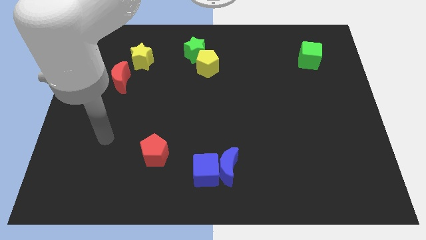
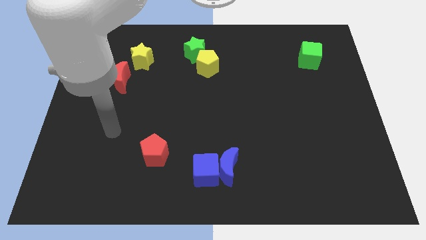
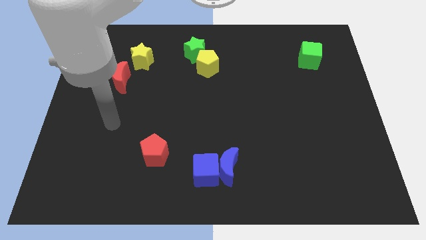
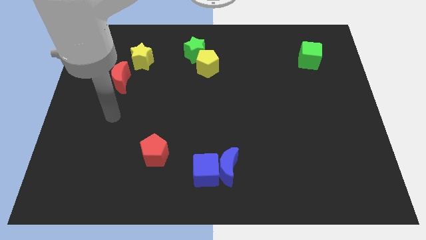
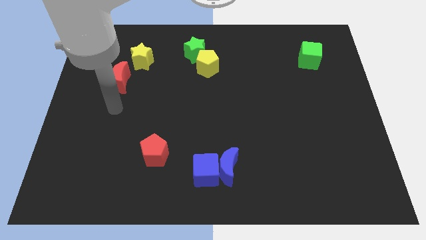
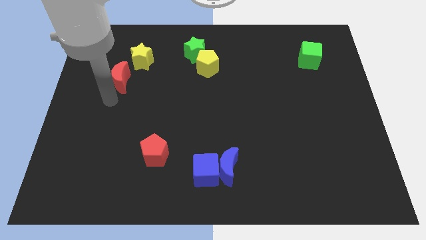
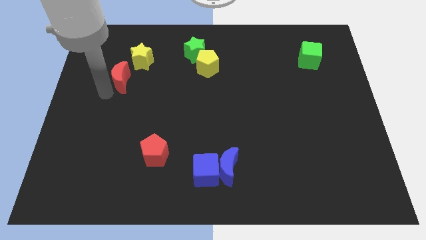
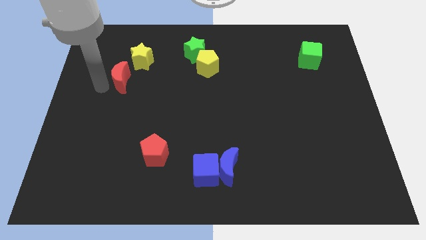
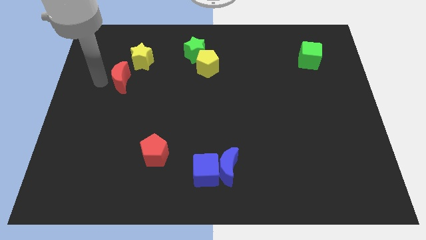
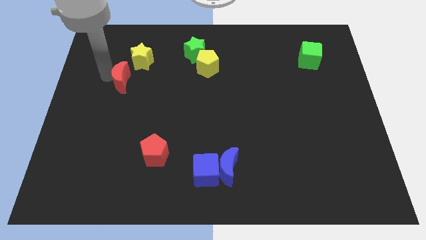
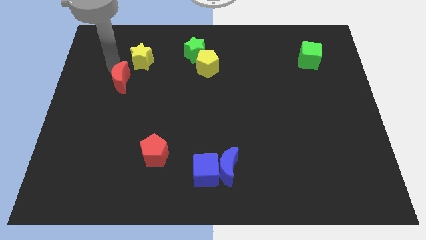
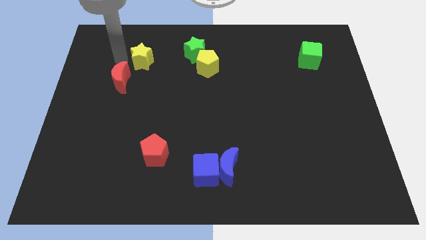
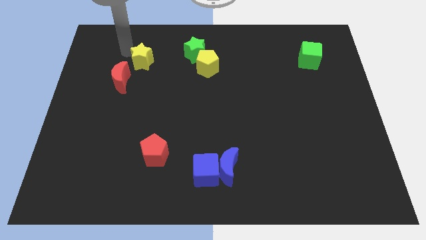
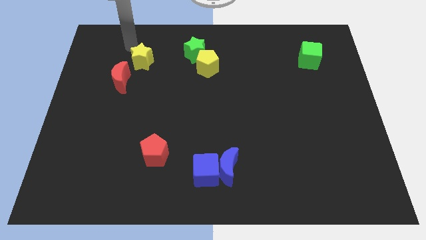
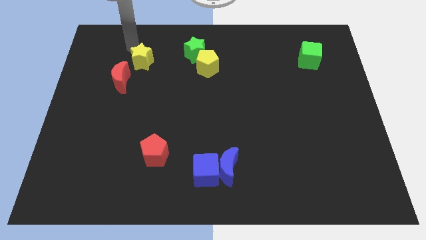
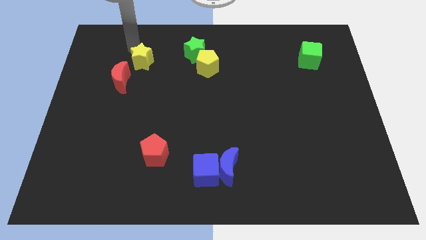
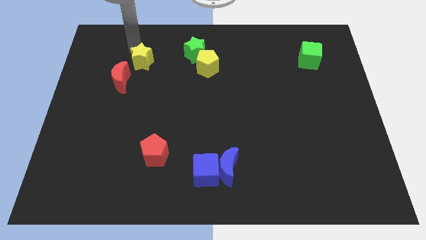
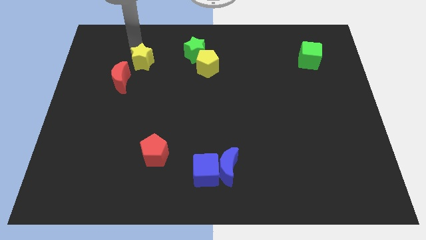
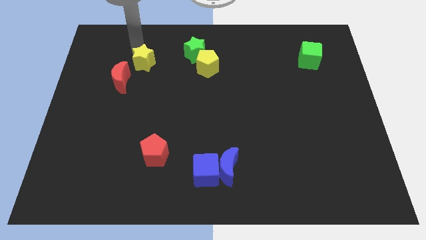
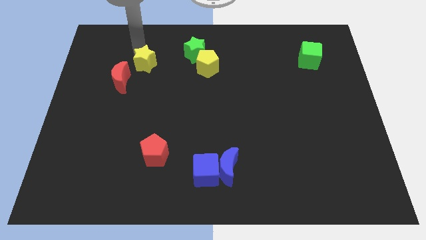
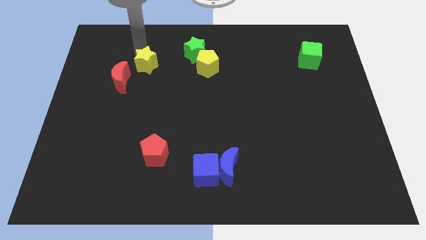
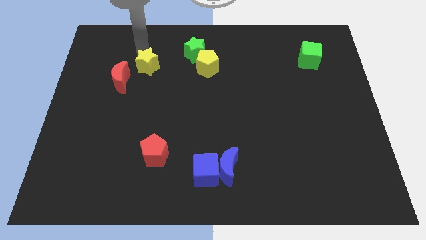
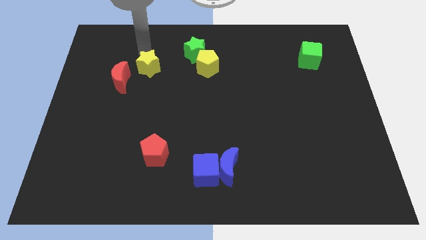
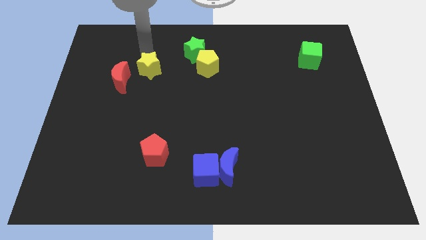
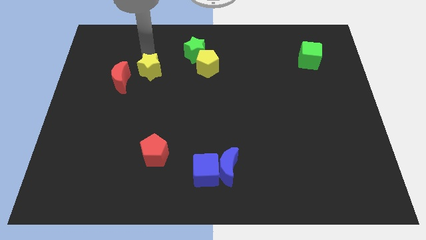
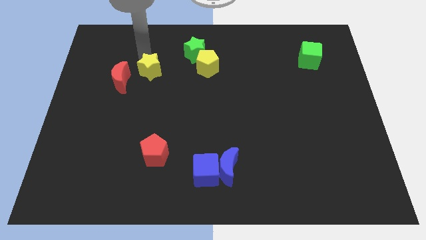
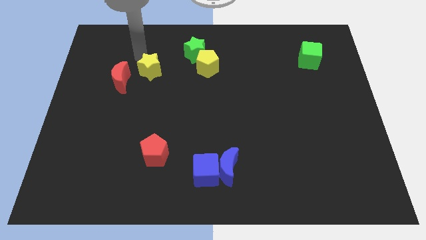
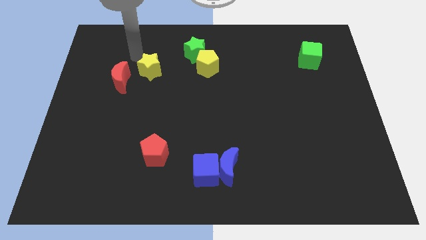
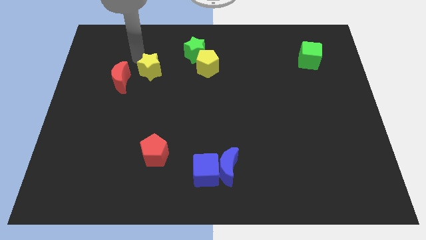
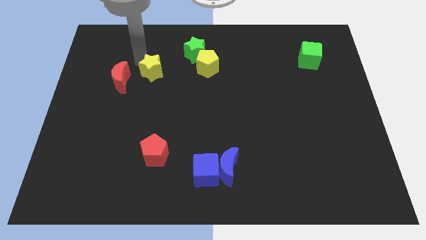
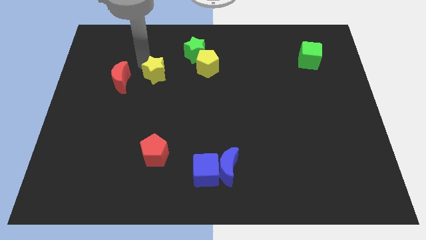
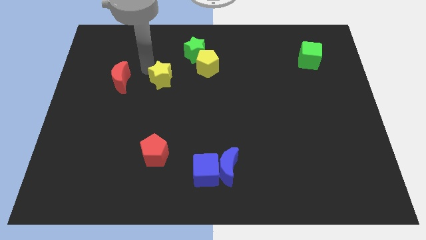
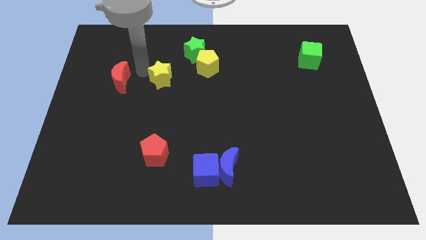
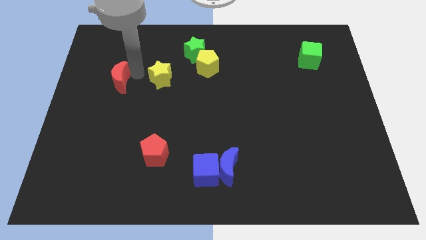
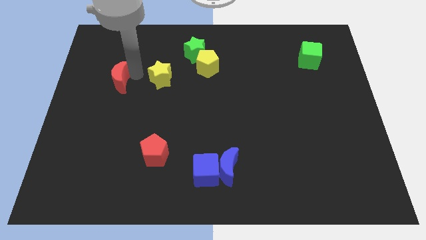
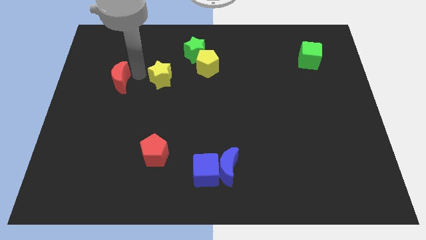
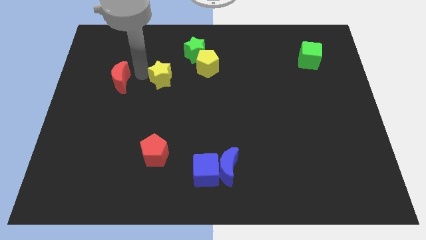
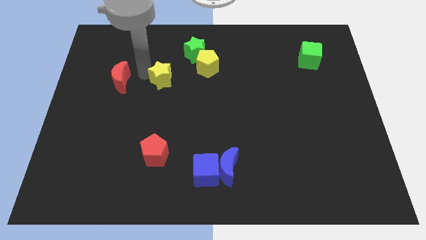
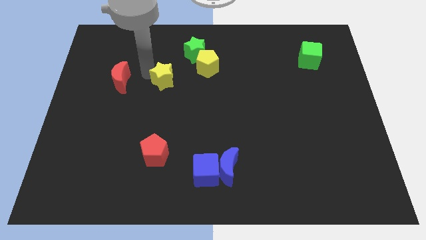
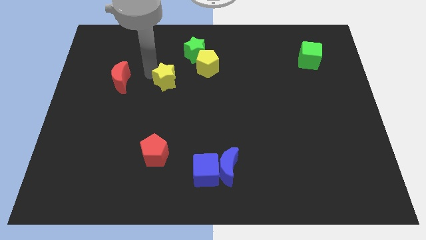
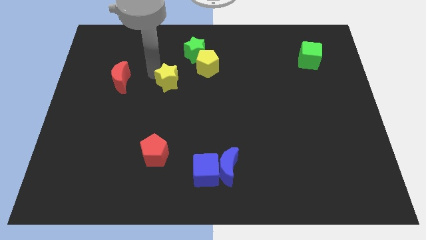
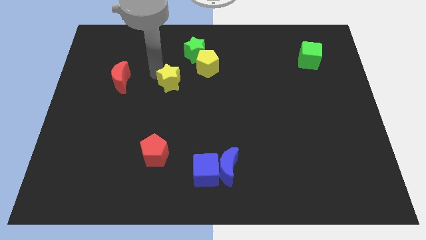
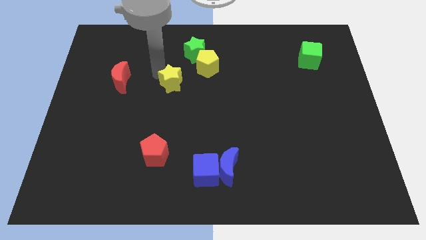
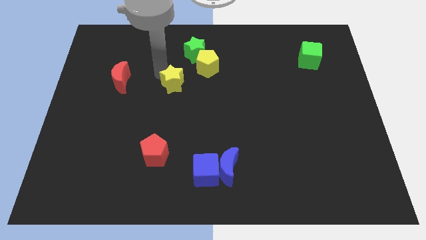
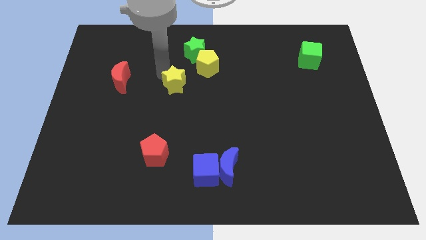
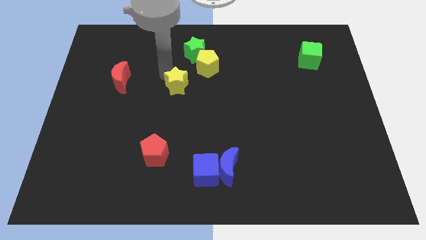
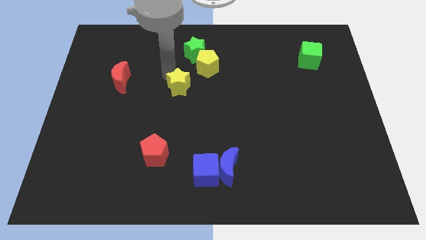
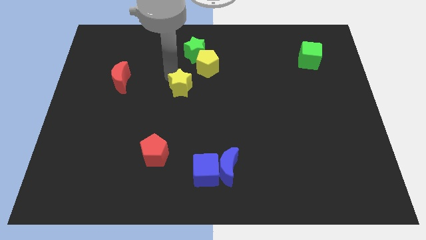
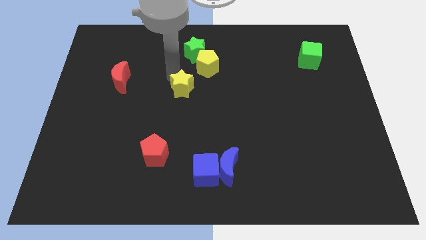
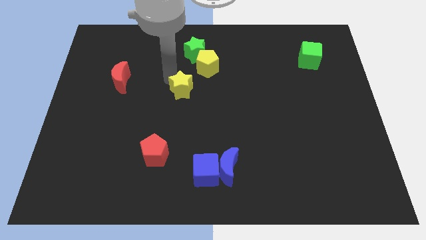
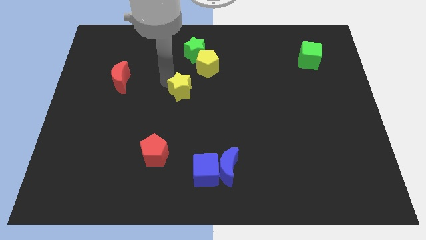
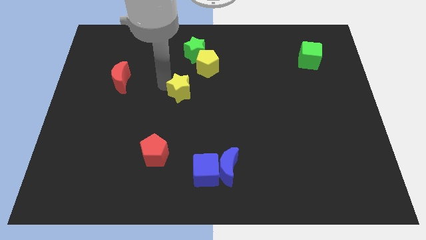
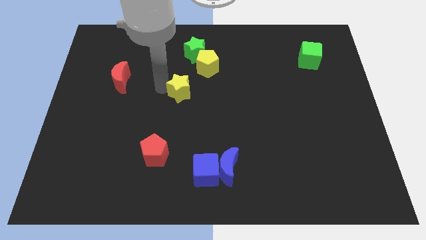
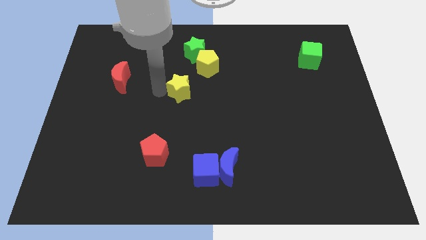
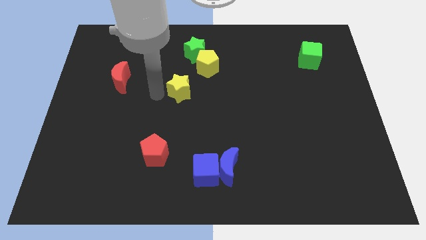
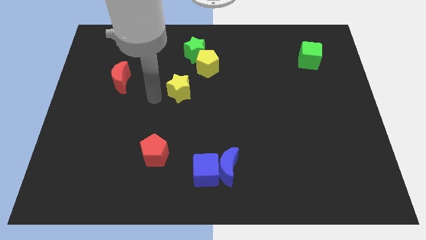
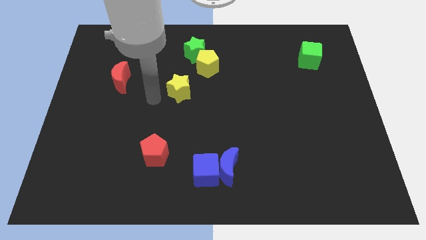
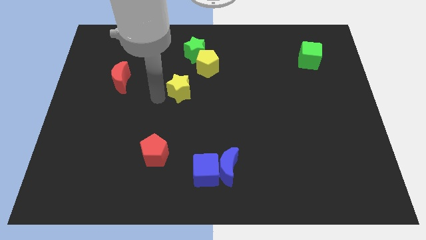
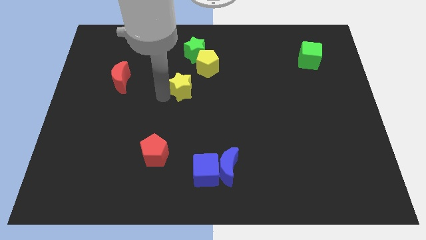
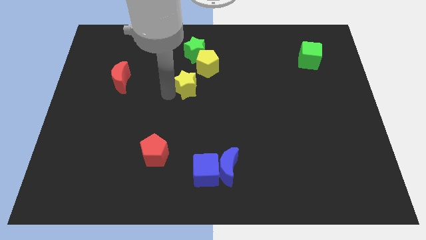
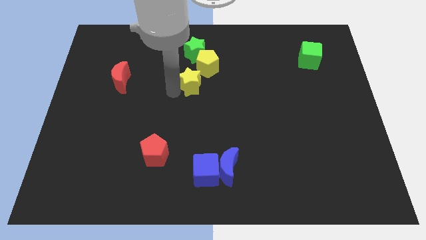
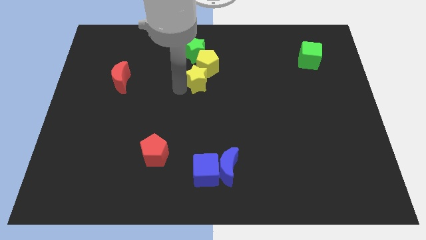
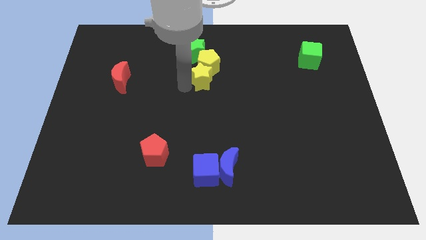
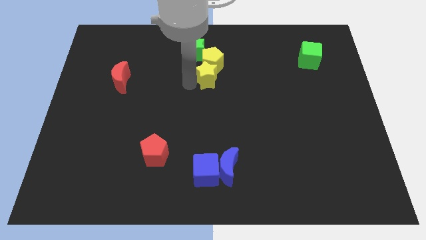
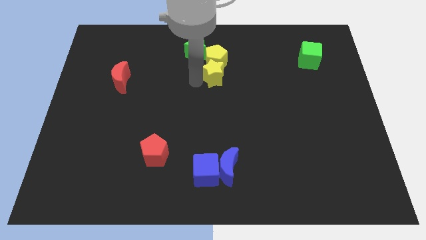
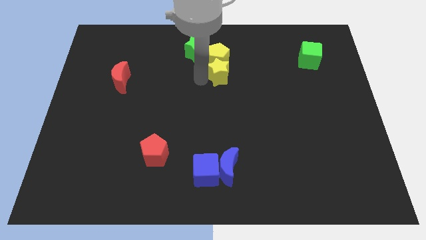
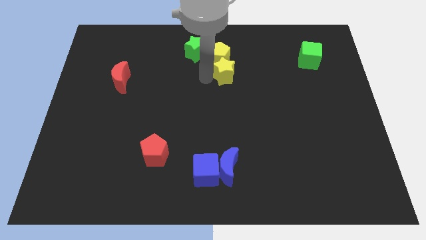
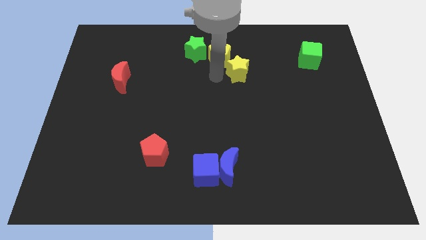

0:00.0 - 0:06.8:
slide the yellow star just right of the yellow pentagon

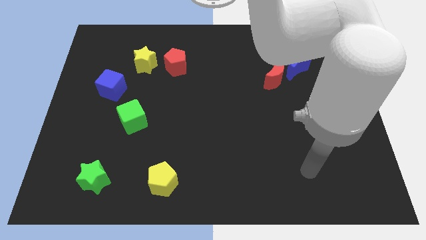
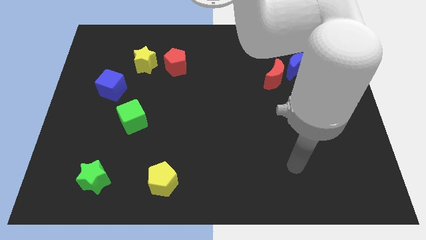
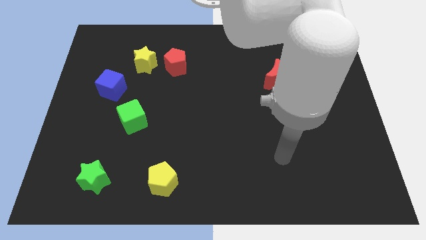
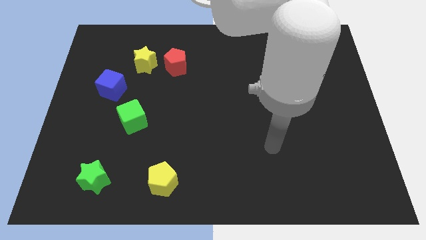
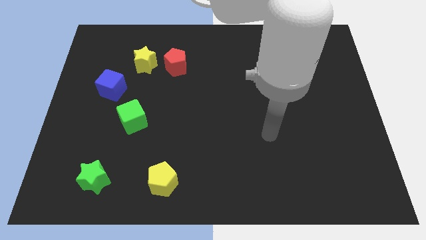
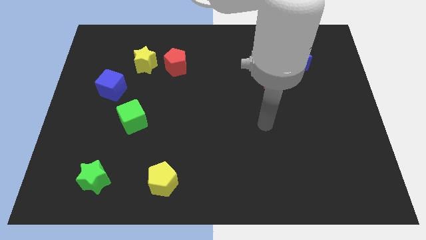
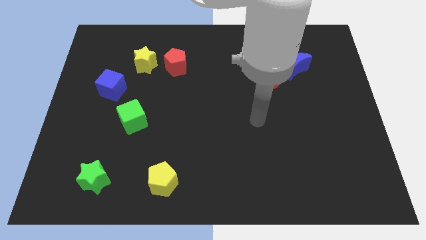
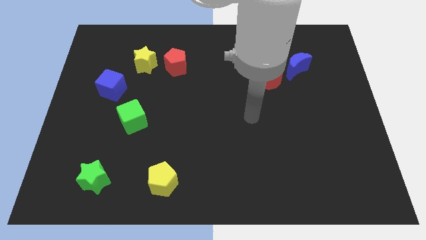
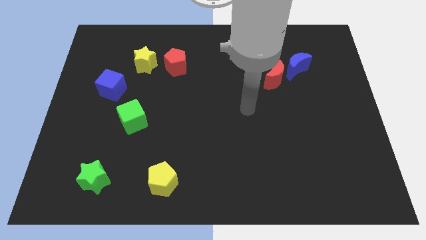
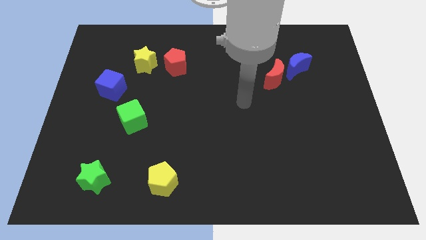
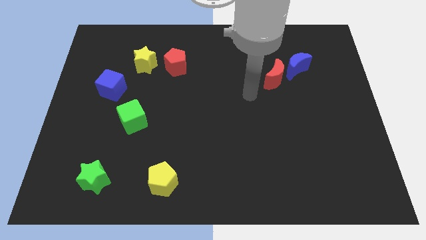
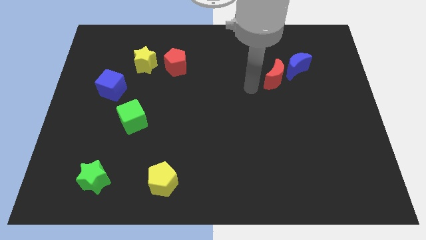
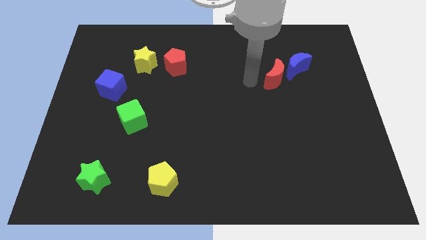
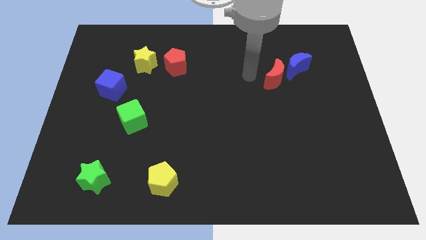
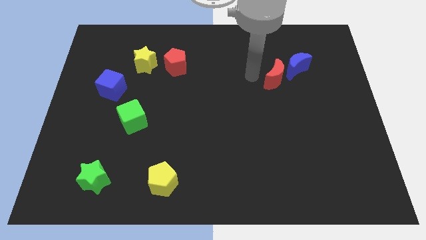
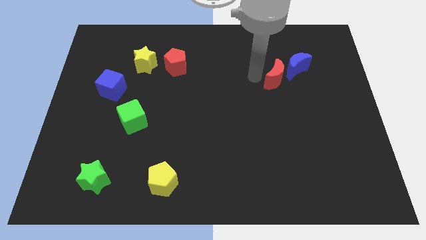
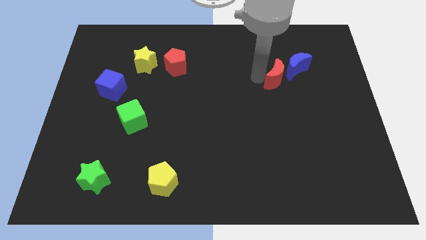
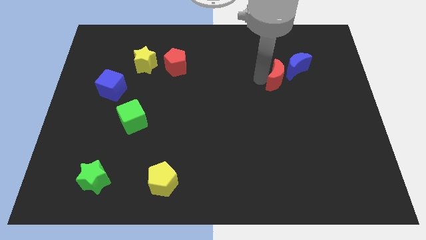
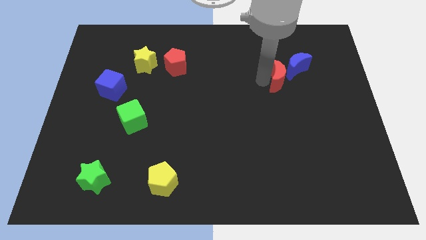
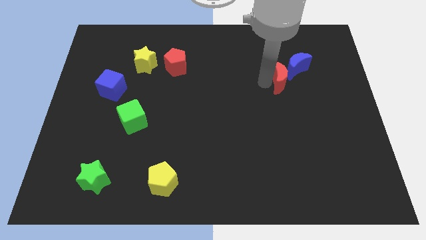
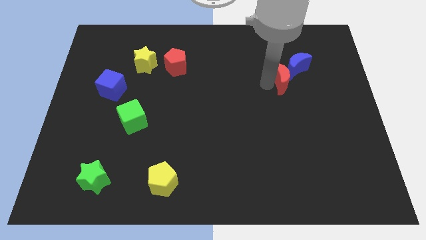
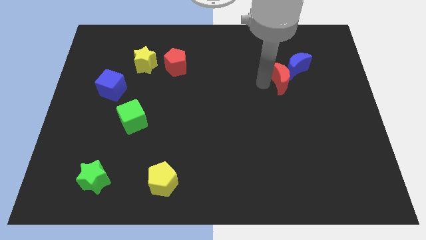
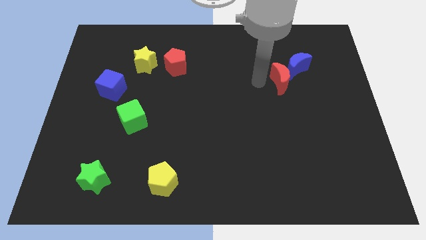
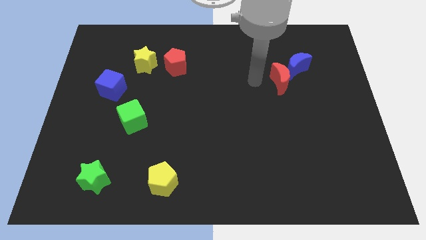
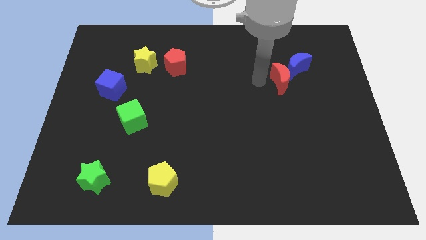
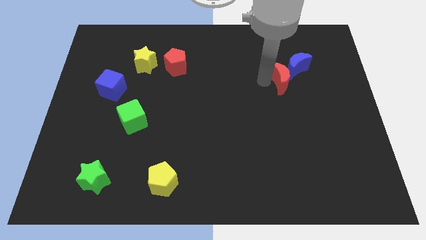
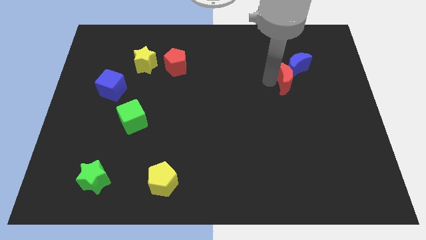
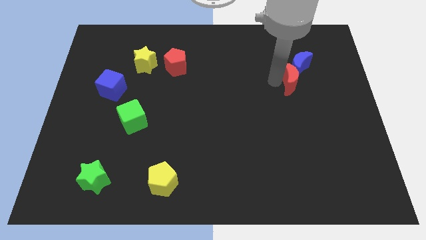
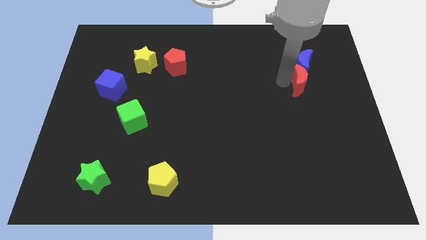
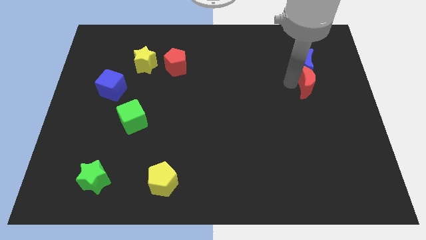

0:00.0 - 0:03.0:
put the red moon diagonally down and to the right of the blue moon
